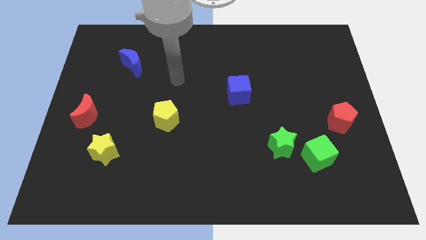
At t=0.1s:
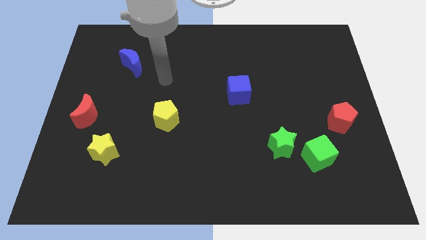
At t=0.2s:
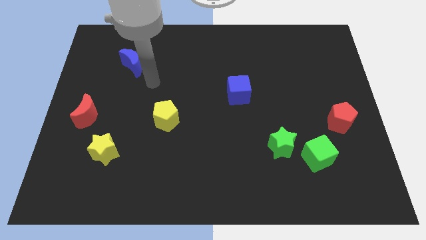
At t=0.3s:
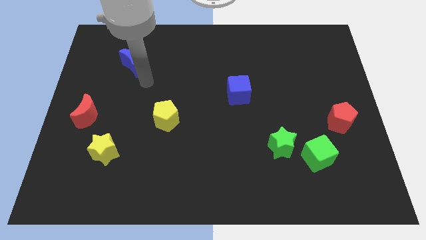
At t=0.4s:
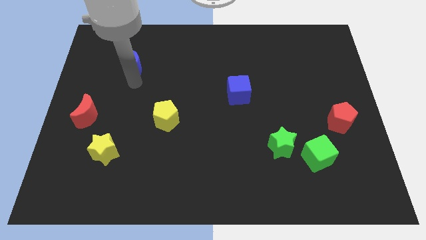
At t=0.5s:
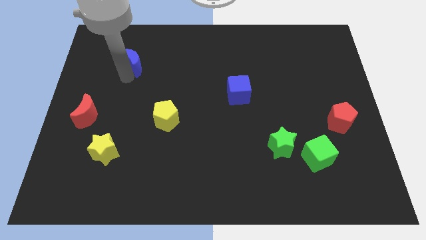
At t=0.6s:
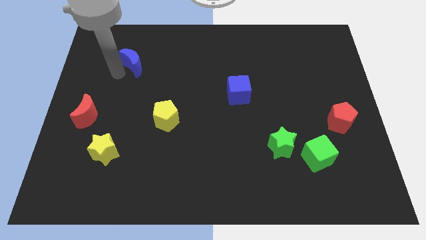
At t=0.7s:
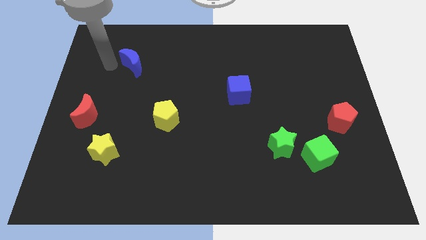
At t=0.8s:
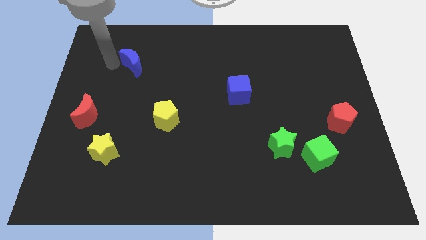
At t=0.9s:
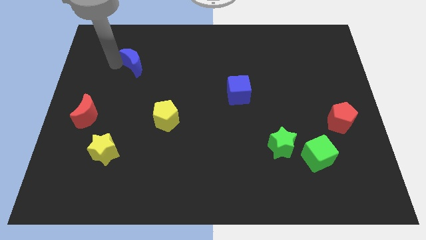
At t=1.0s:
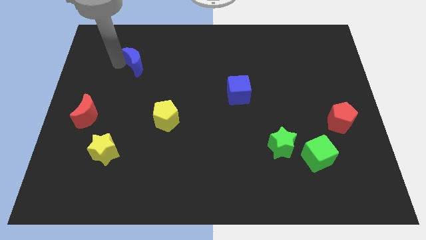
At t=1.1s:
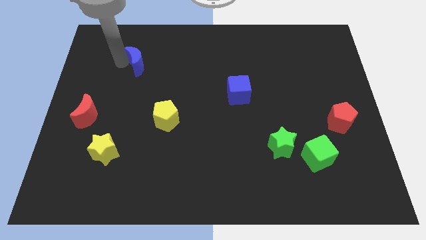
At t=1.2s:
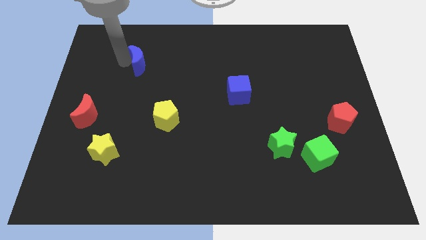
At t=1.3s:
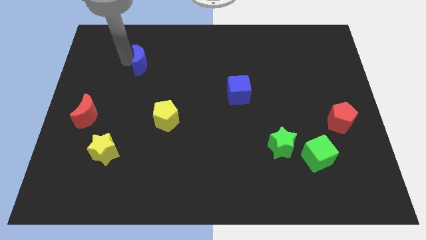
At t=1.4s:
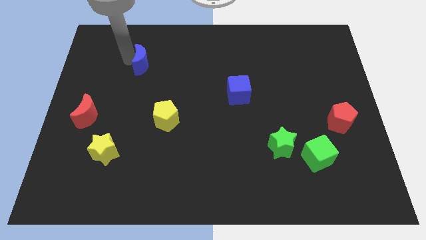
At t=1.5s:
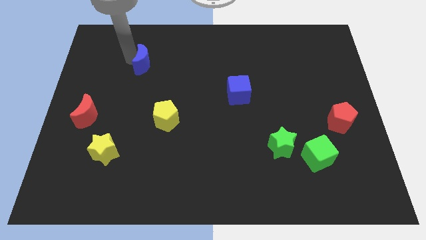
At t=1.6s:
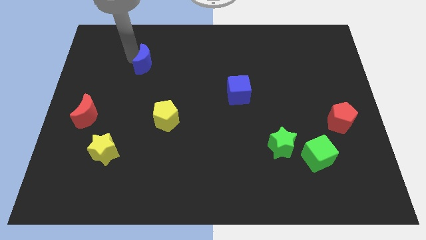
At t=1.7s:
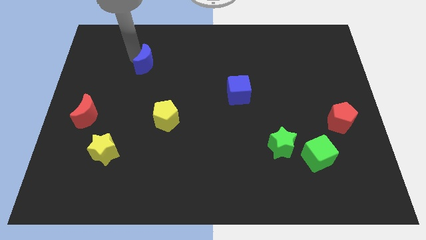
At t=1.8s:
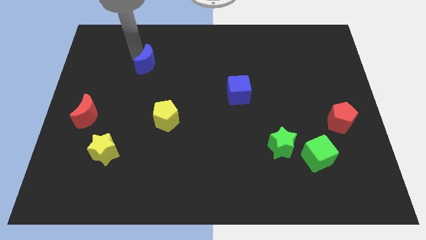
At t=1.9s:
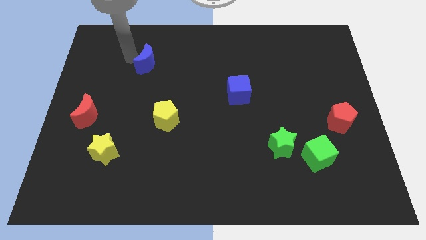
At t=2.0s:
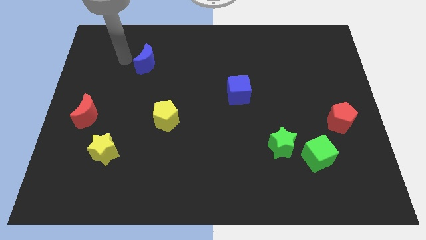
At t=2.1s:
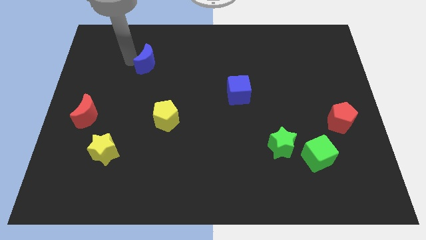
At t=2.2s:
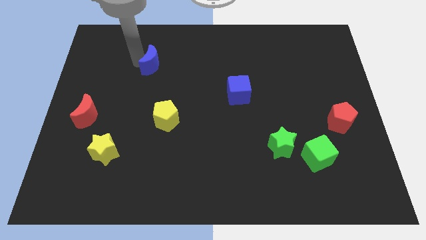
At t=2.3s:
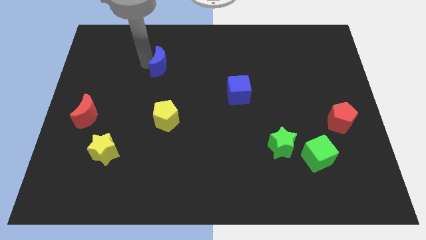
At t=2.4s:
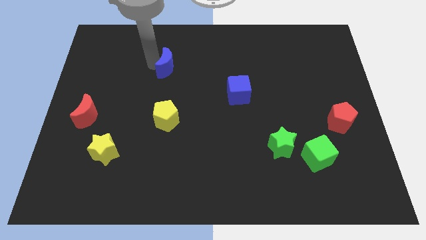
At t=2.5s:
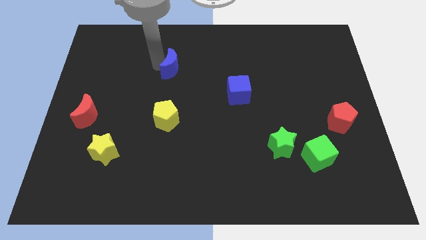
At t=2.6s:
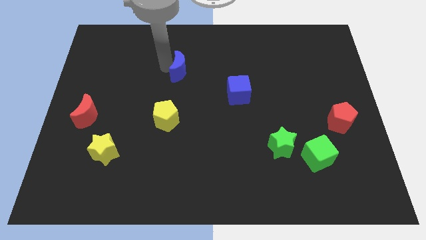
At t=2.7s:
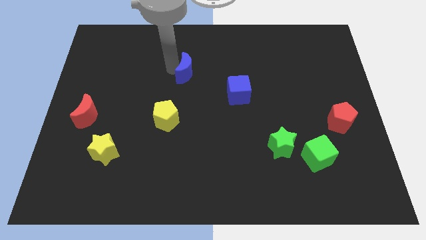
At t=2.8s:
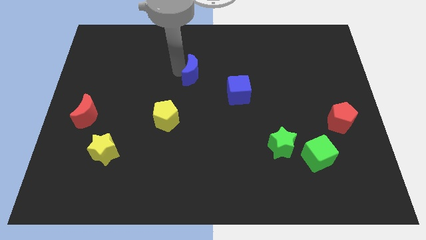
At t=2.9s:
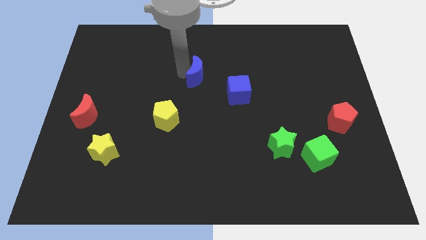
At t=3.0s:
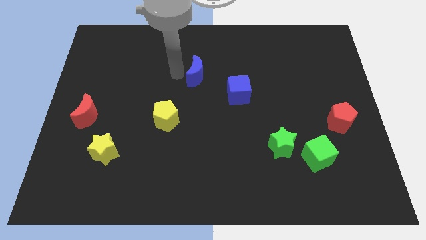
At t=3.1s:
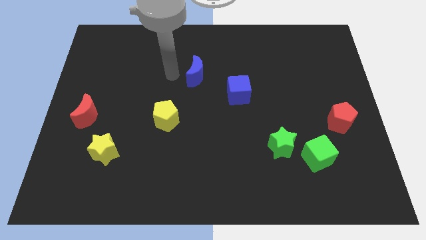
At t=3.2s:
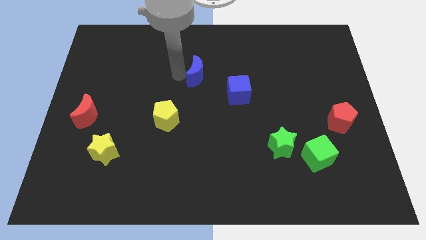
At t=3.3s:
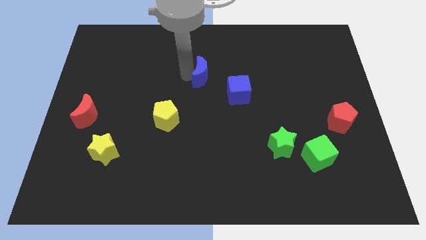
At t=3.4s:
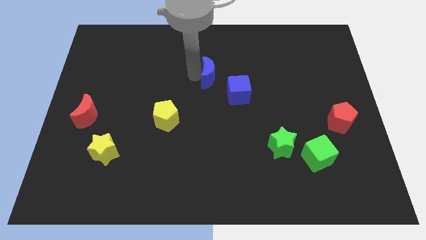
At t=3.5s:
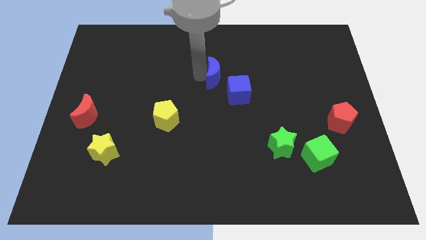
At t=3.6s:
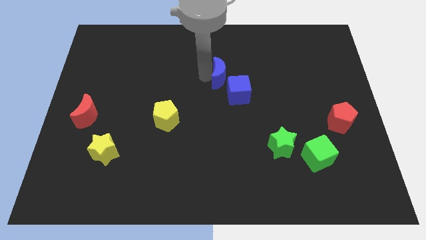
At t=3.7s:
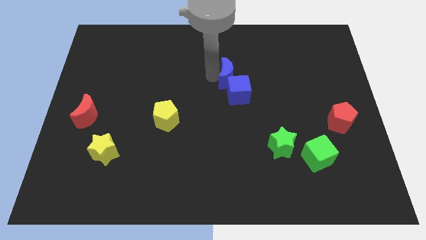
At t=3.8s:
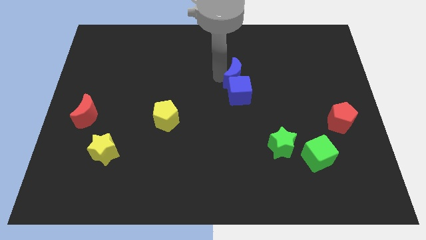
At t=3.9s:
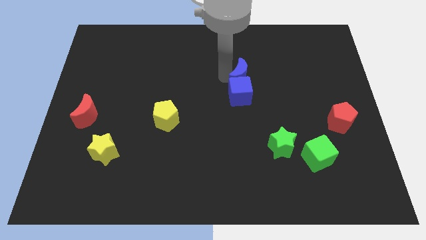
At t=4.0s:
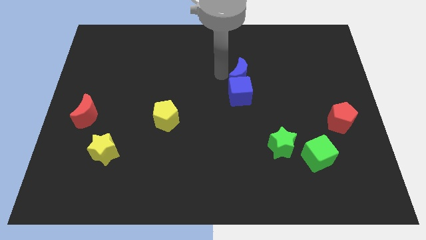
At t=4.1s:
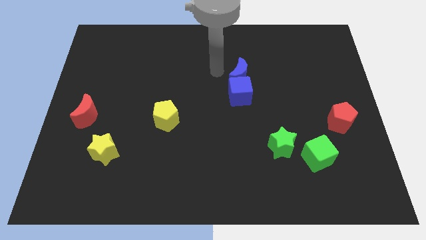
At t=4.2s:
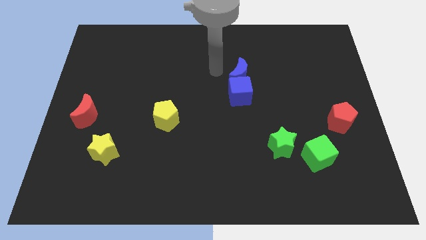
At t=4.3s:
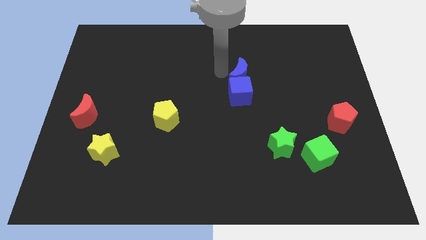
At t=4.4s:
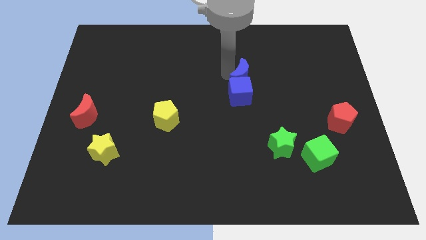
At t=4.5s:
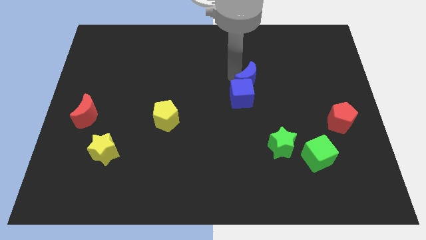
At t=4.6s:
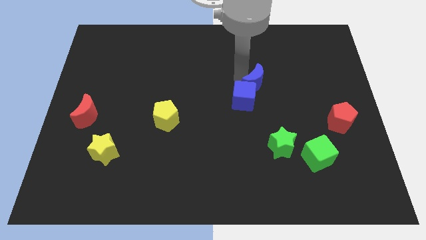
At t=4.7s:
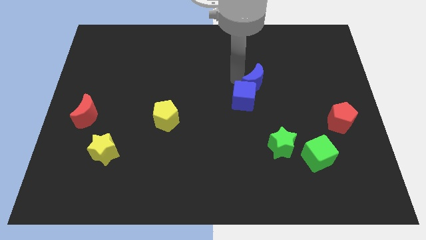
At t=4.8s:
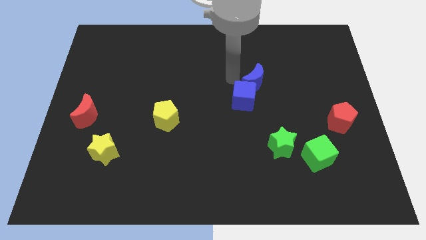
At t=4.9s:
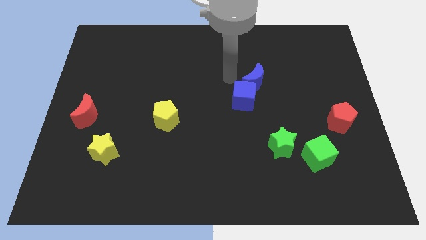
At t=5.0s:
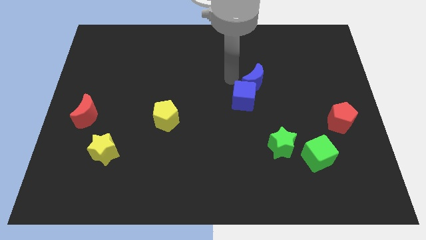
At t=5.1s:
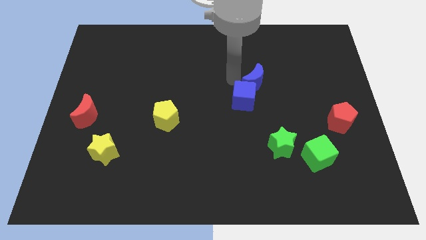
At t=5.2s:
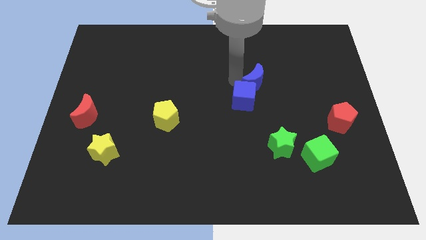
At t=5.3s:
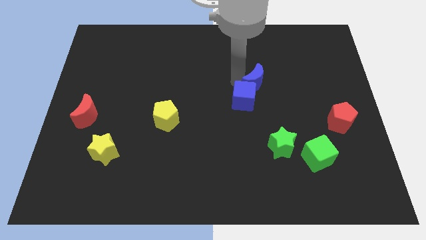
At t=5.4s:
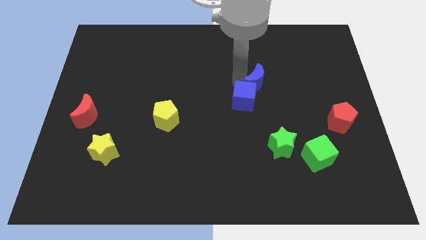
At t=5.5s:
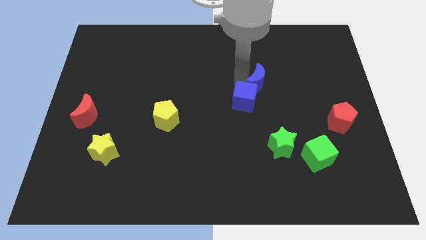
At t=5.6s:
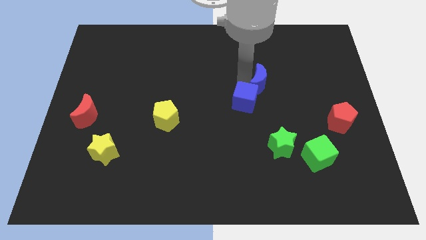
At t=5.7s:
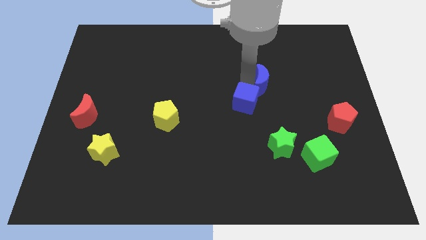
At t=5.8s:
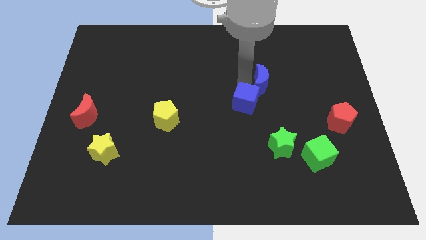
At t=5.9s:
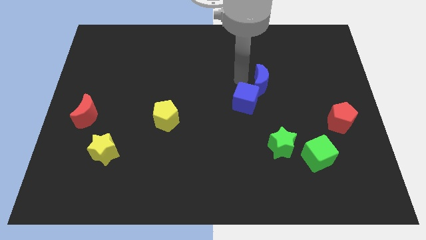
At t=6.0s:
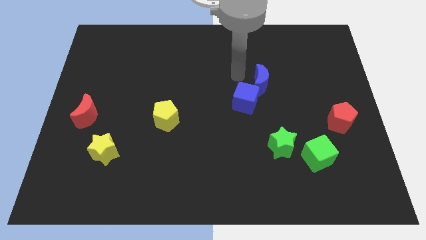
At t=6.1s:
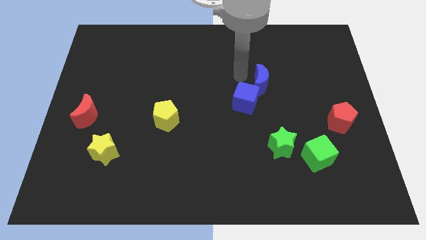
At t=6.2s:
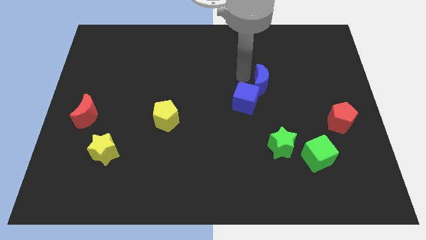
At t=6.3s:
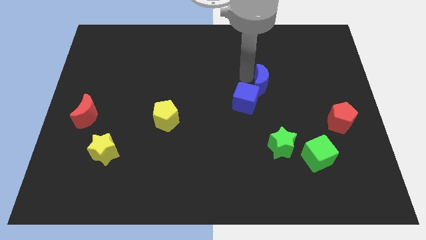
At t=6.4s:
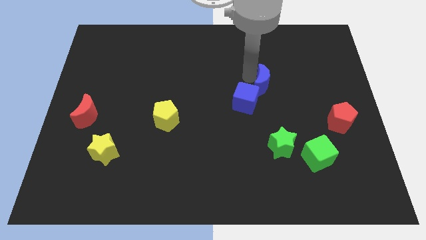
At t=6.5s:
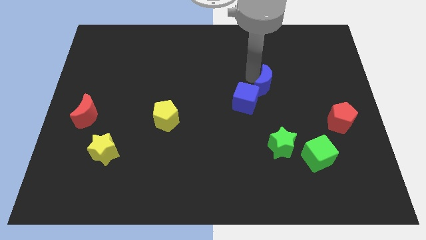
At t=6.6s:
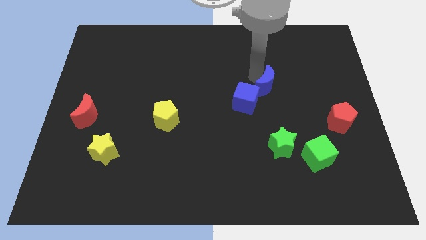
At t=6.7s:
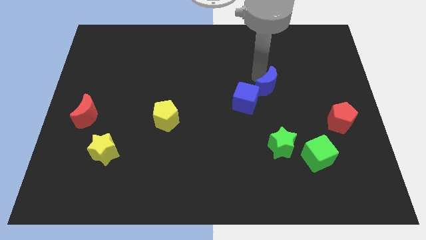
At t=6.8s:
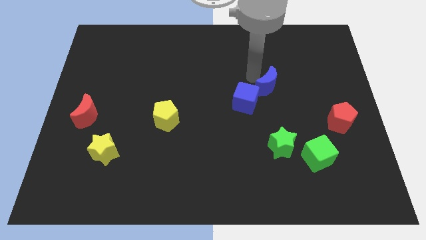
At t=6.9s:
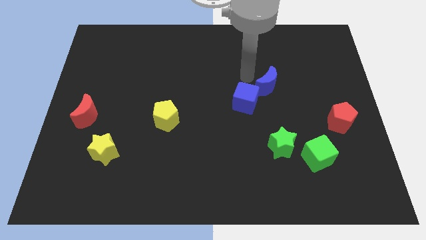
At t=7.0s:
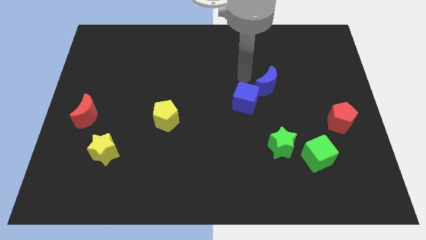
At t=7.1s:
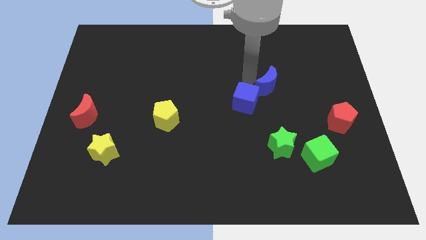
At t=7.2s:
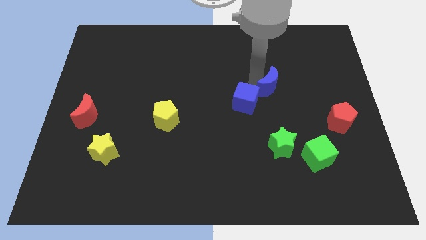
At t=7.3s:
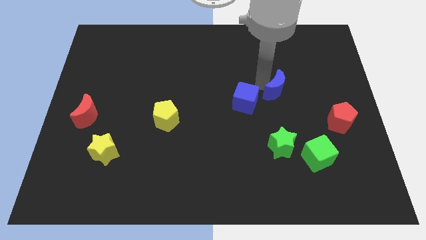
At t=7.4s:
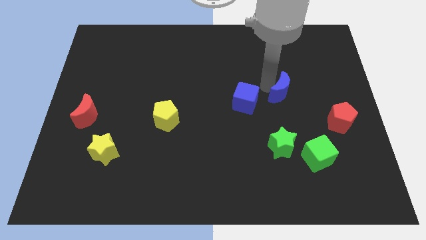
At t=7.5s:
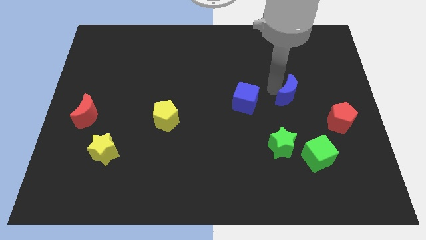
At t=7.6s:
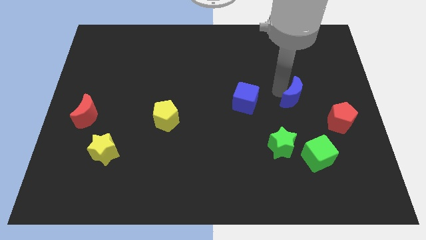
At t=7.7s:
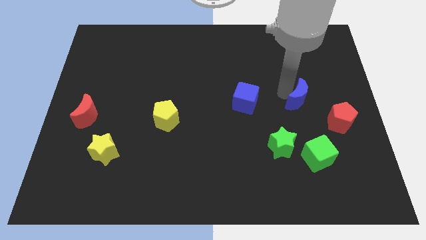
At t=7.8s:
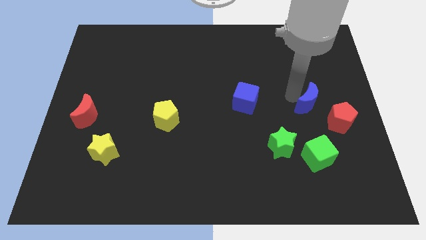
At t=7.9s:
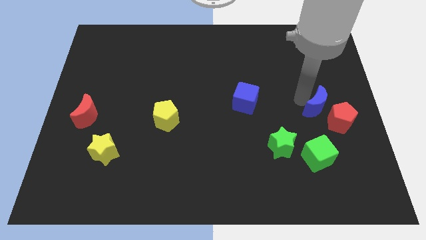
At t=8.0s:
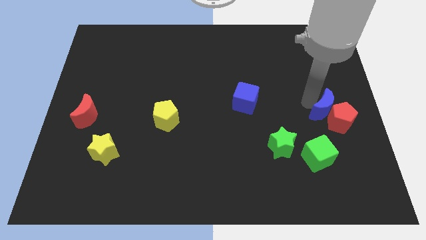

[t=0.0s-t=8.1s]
slide the blue moon to the red pentagon
